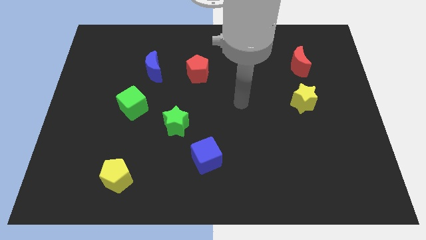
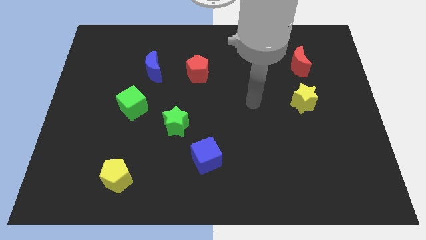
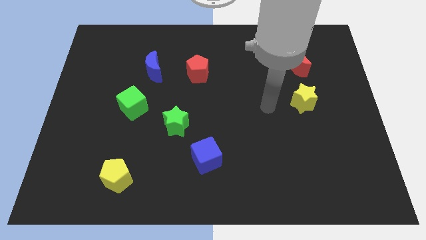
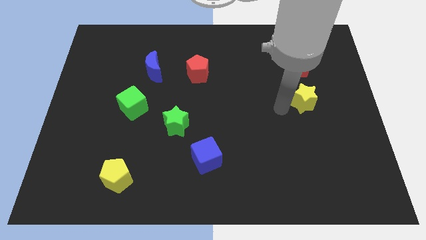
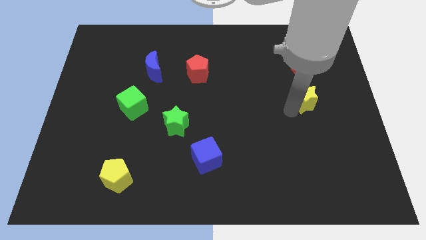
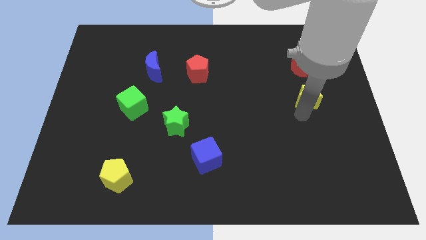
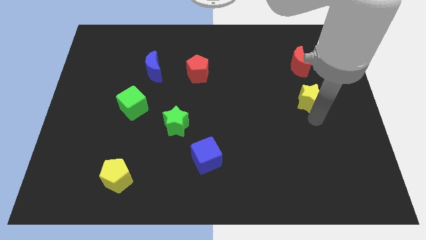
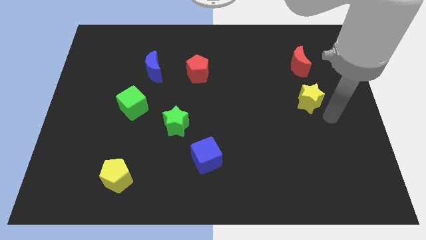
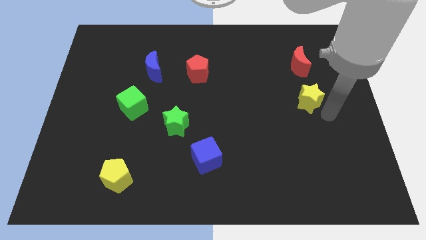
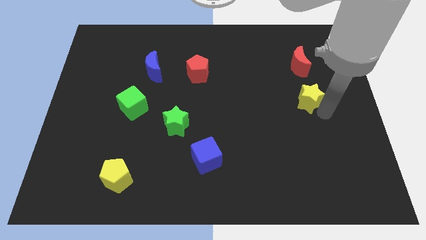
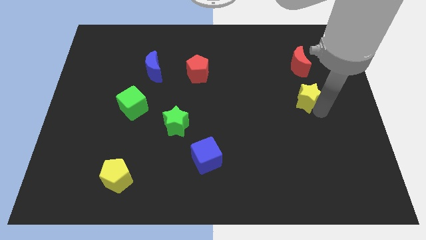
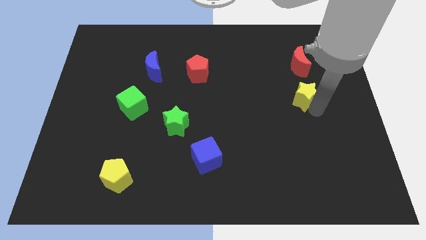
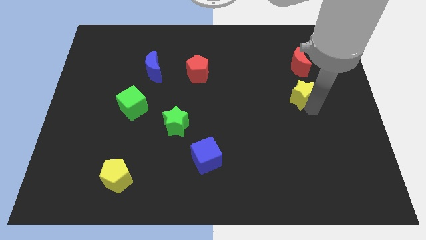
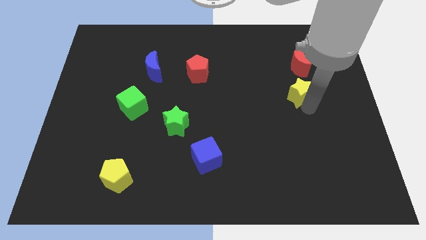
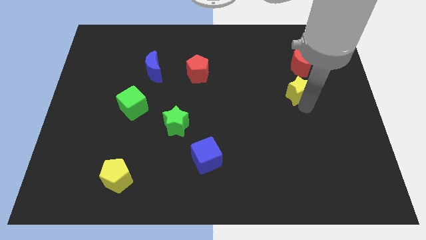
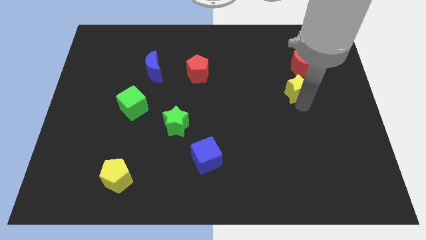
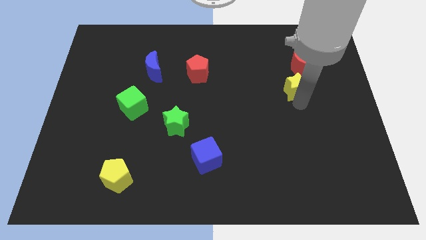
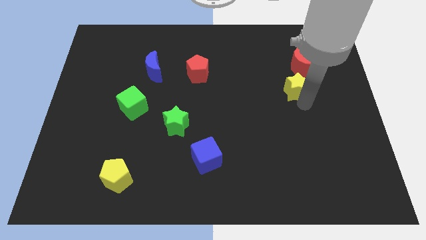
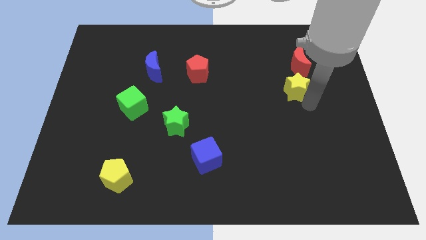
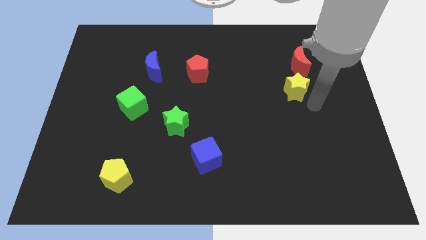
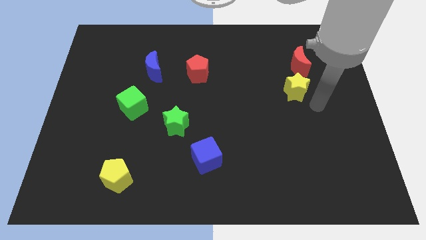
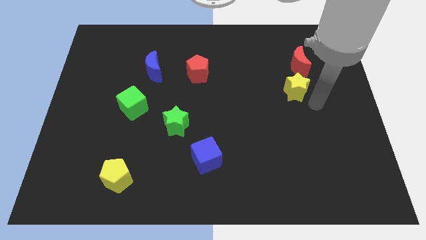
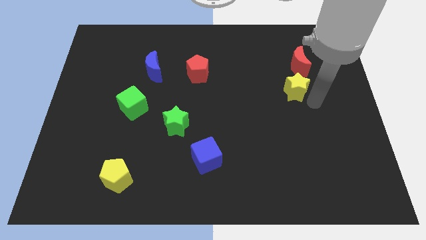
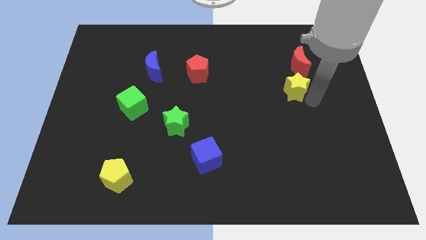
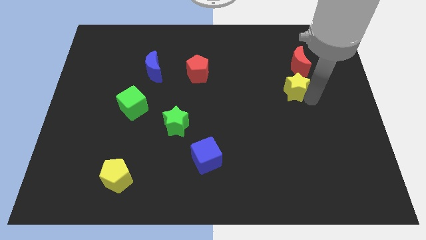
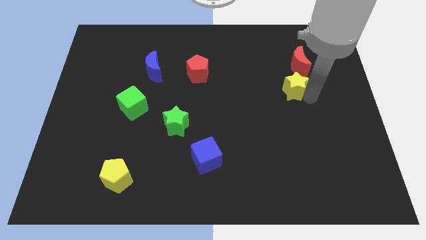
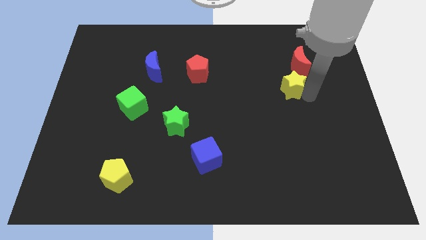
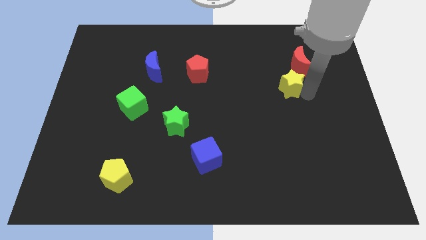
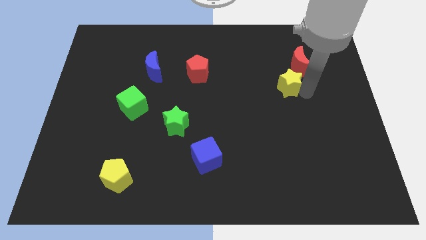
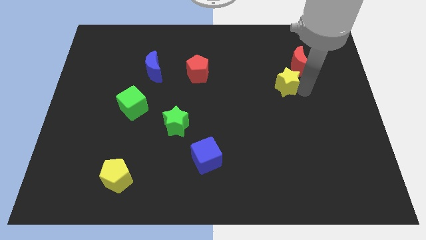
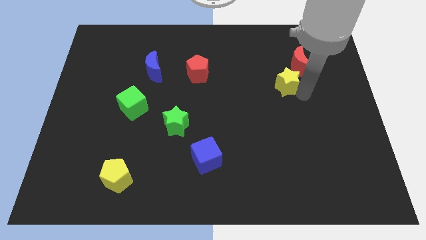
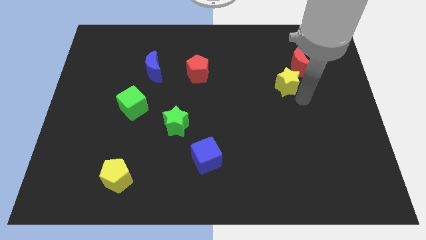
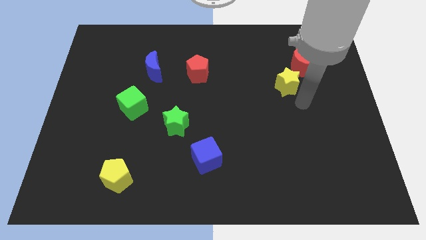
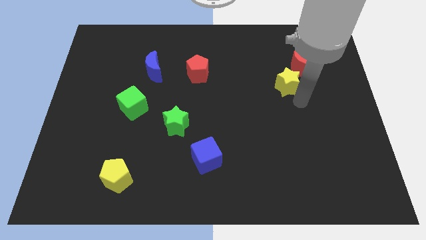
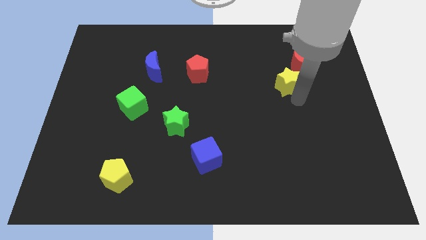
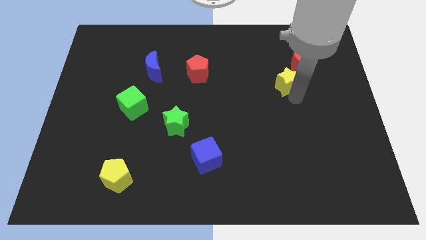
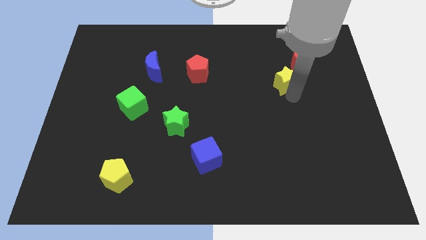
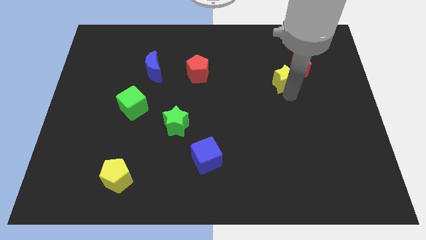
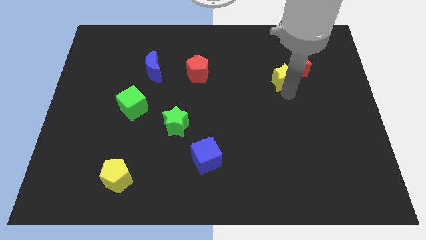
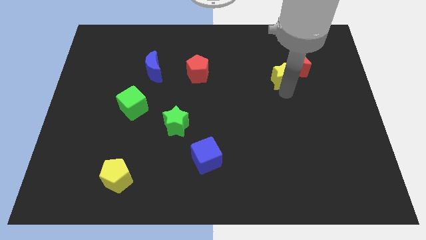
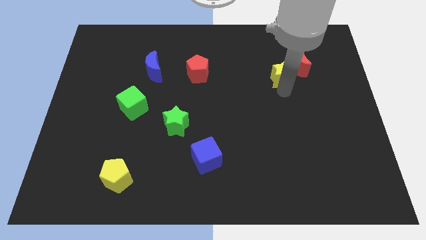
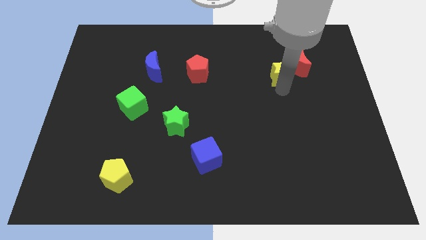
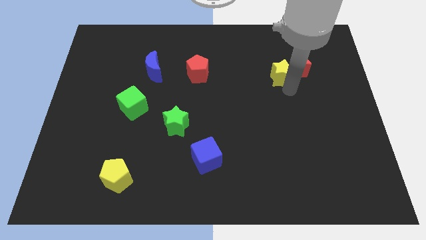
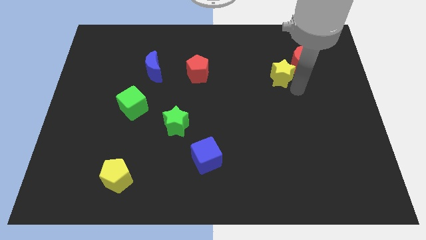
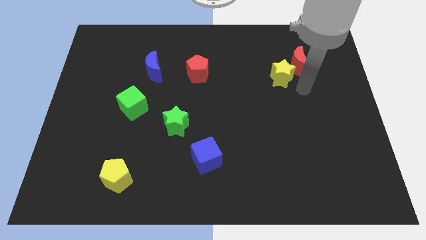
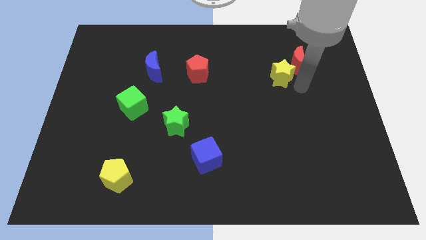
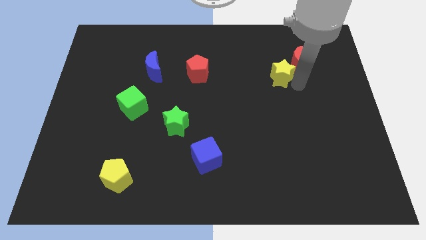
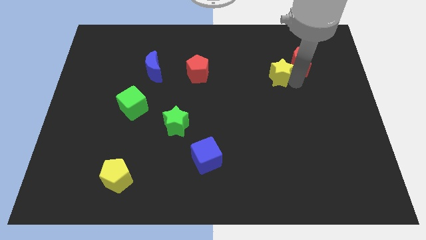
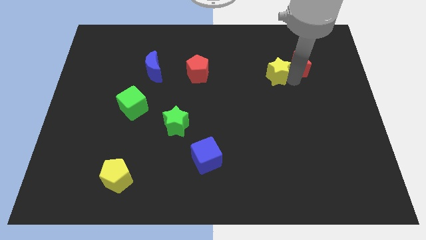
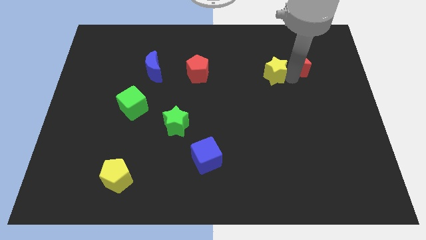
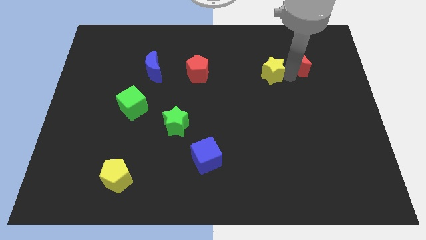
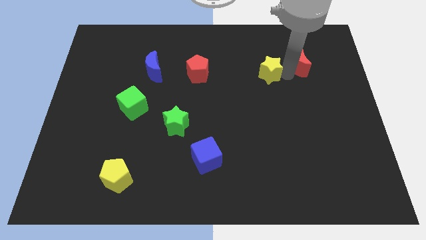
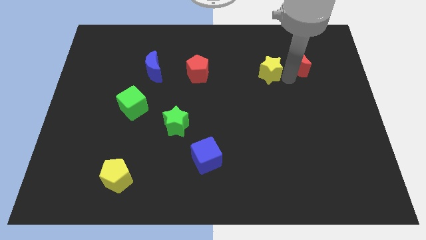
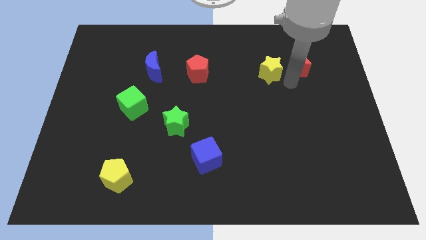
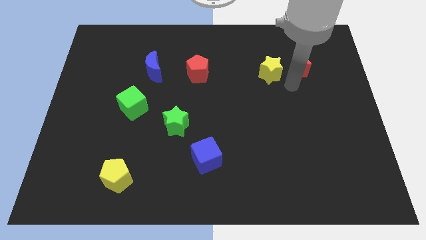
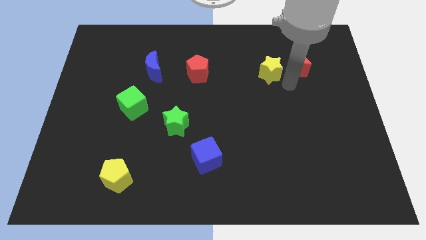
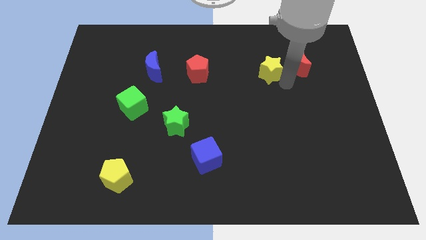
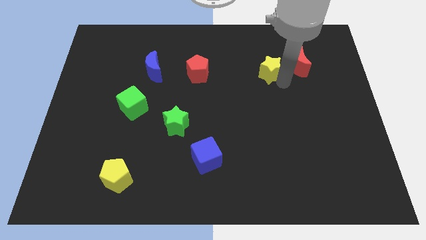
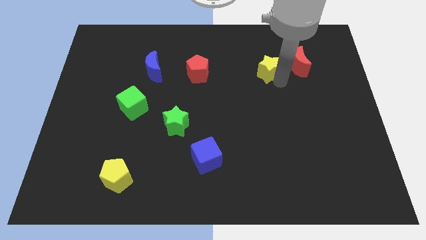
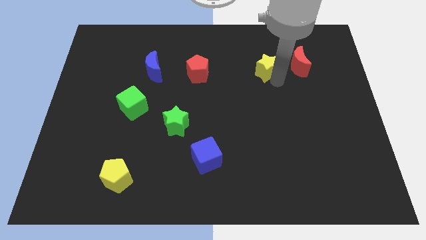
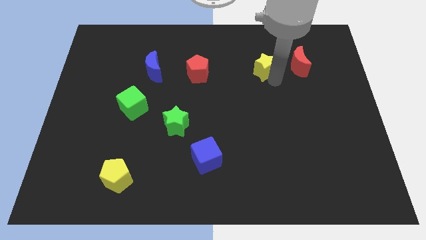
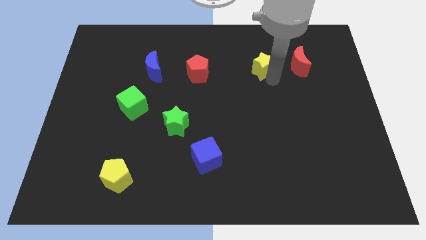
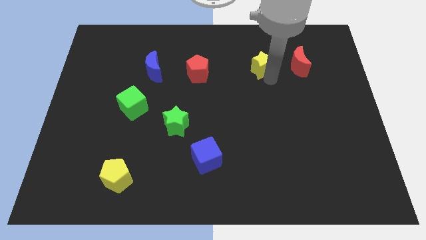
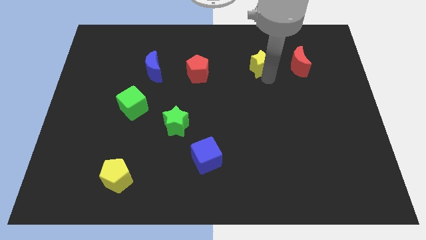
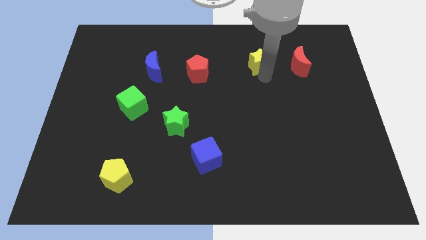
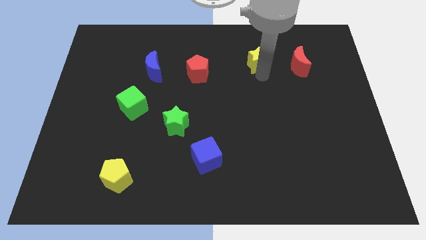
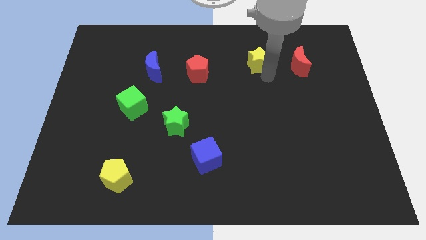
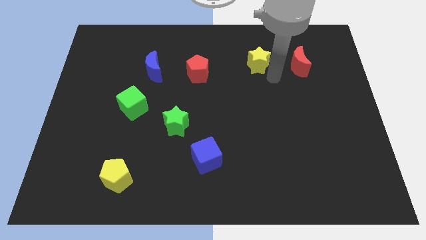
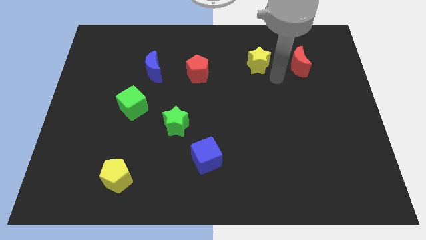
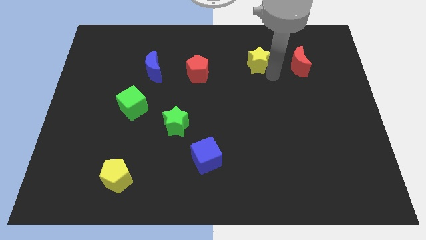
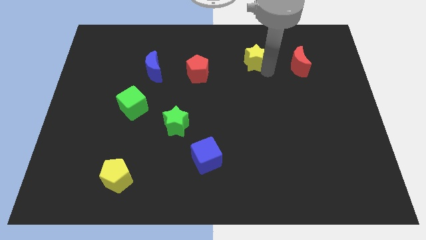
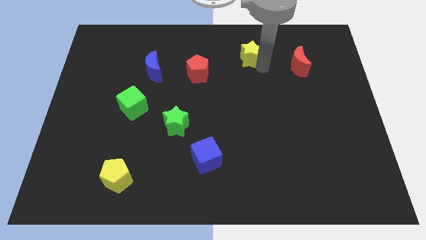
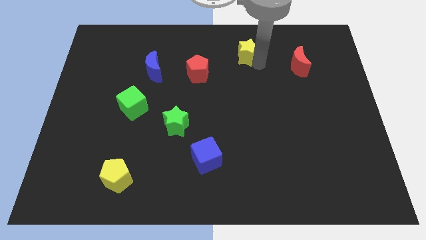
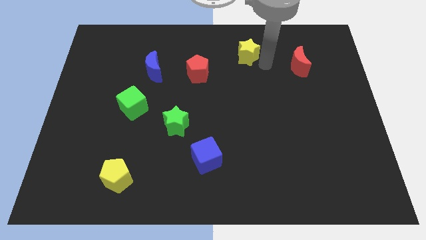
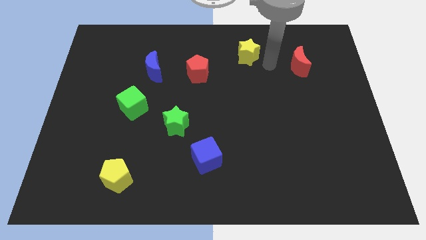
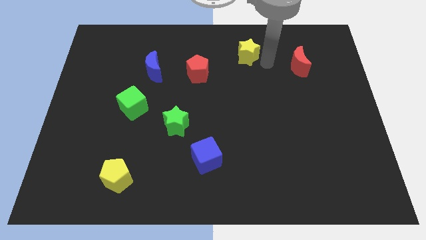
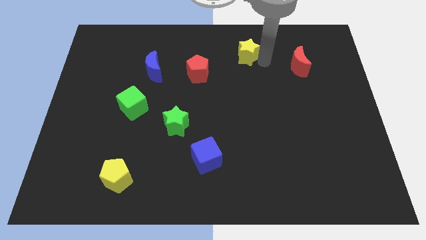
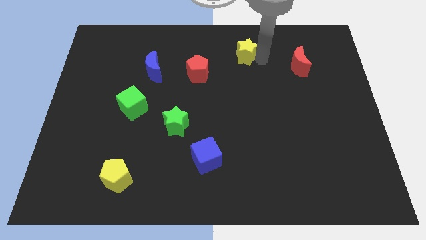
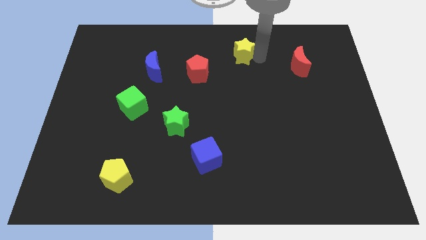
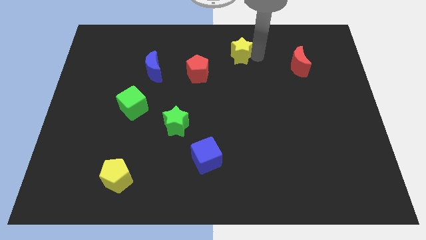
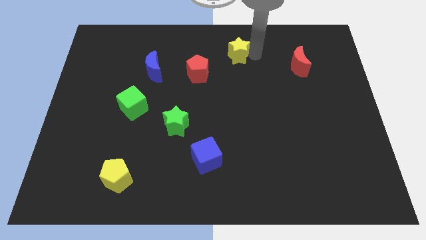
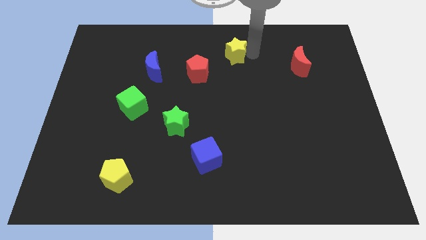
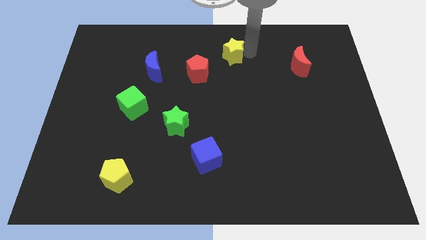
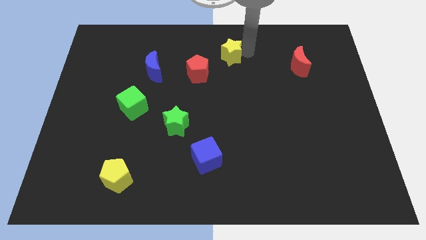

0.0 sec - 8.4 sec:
put the yellow star to the top
